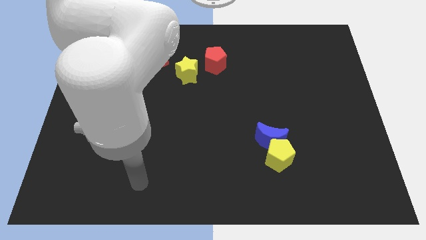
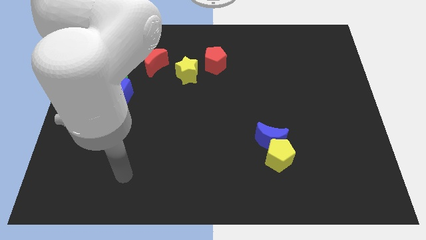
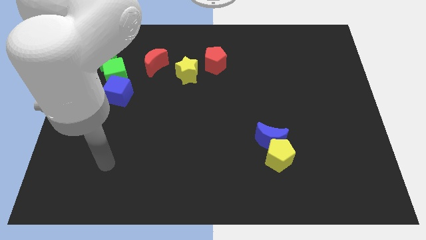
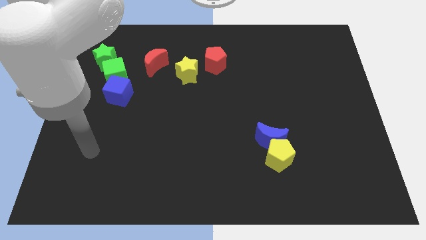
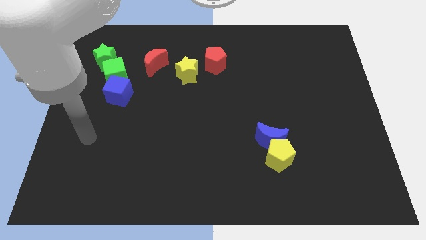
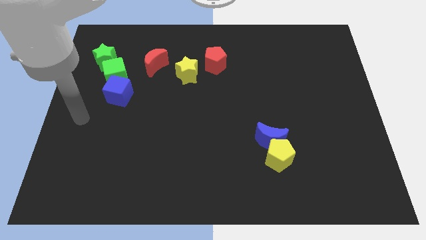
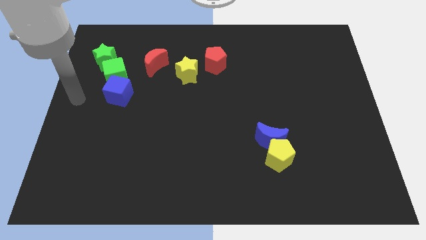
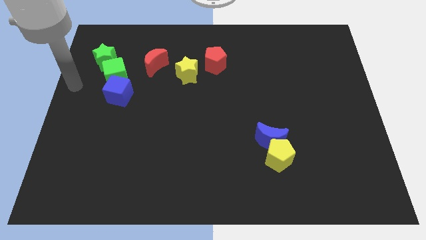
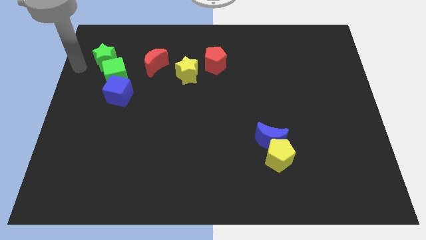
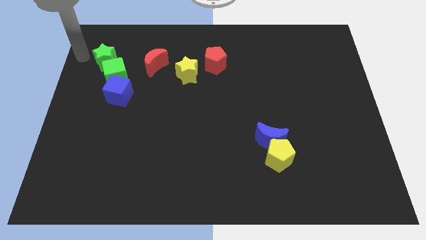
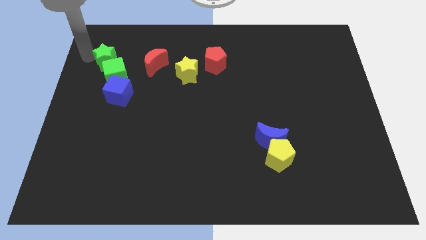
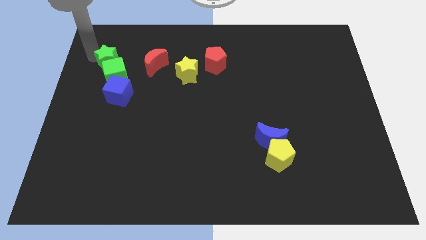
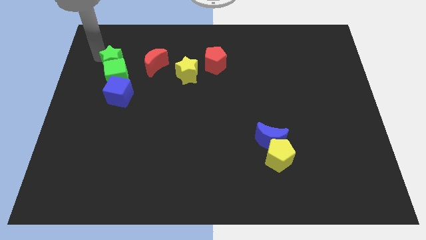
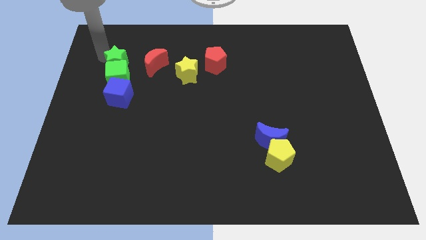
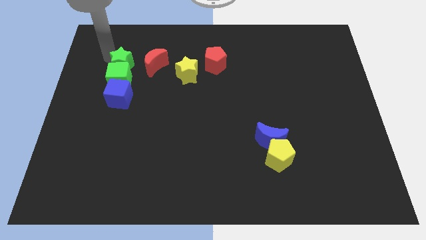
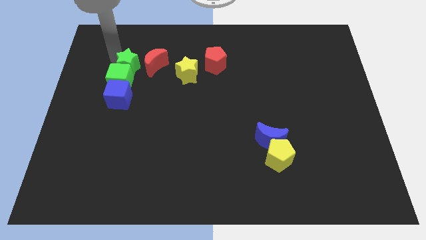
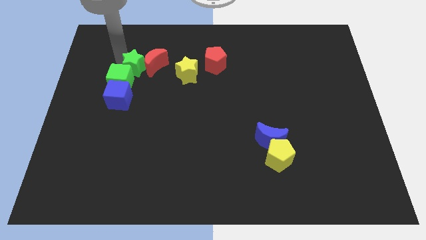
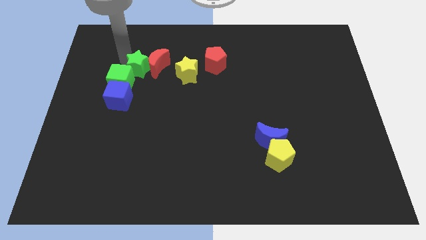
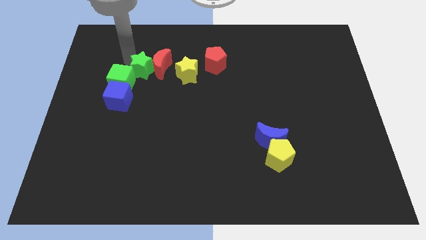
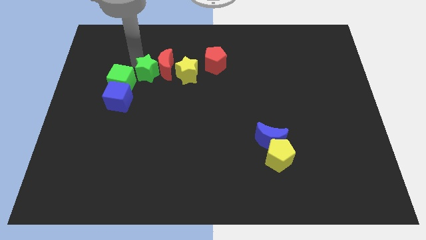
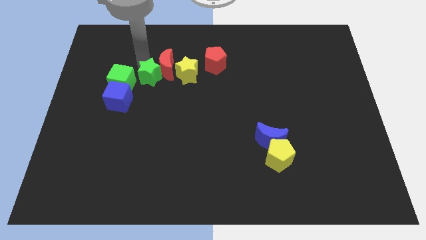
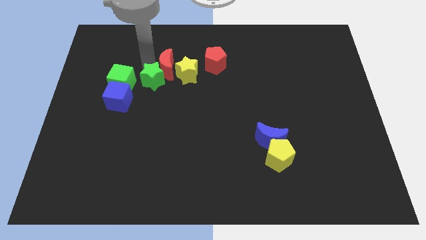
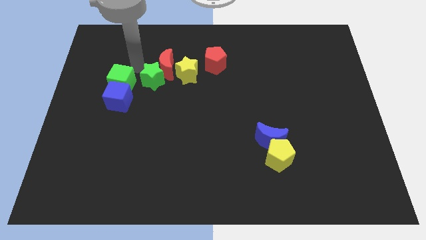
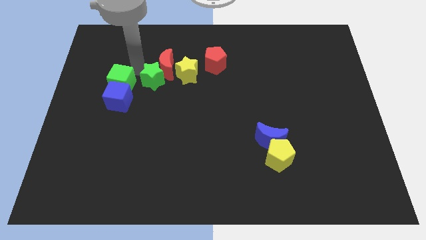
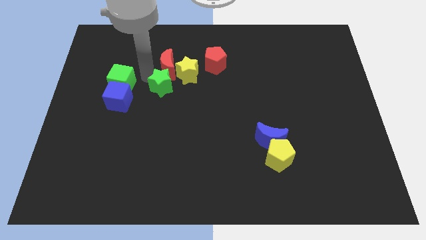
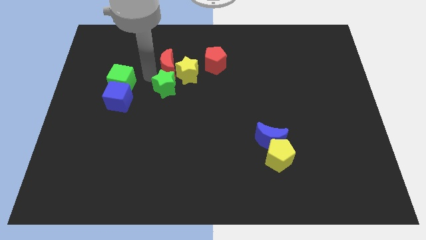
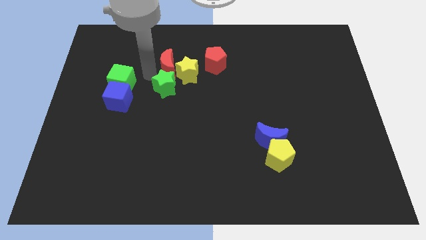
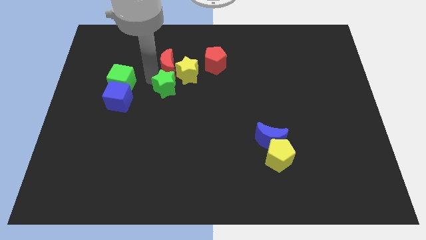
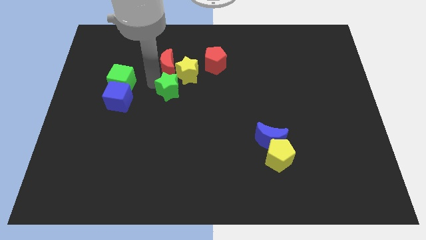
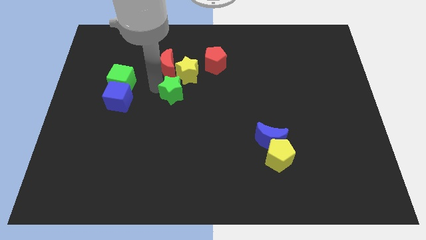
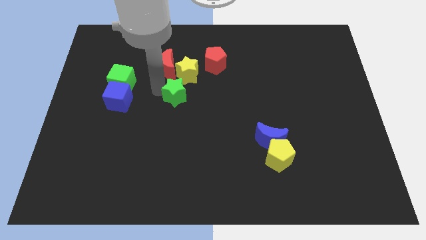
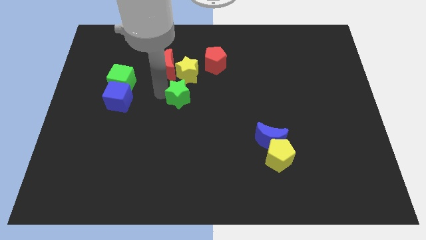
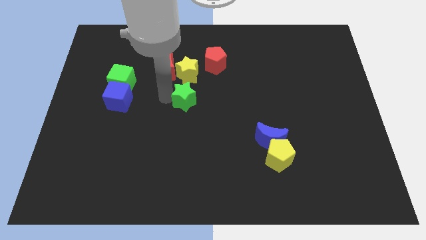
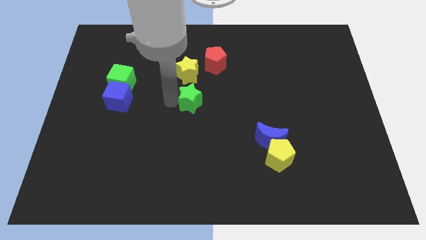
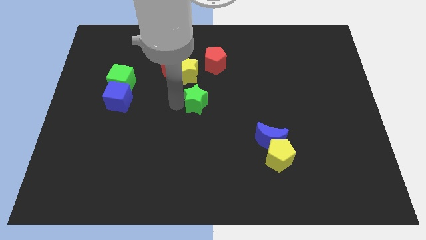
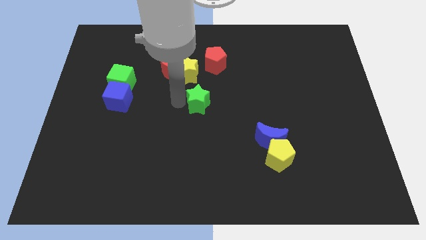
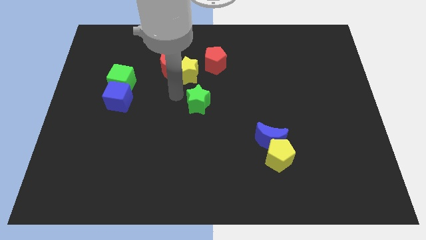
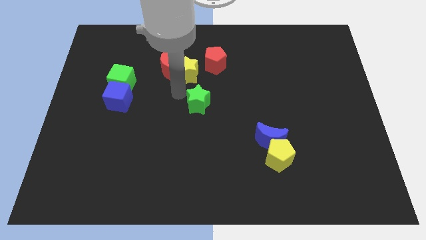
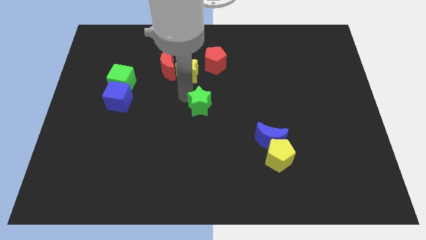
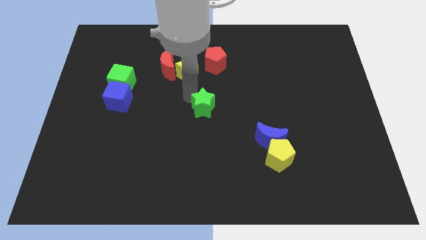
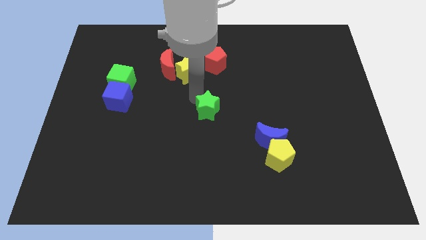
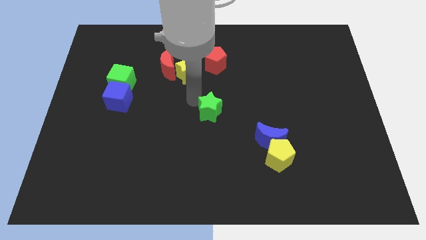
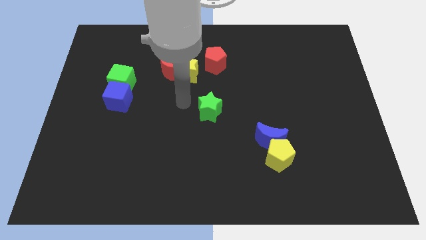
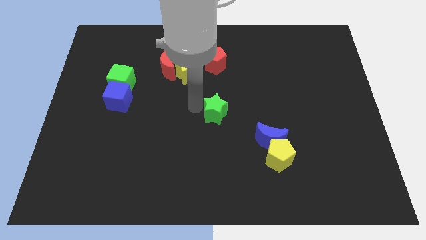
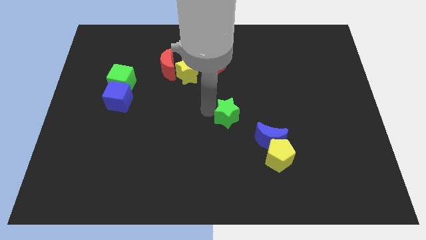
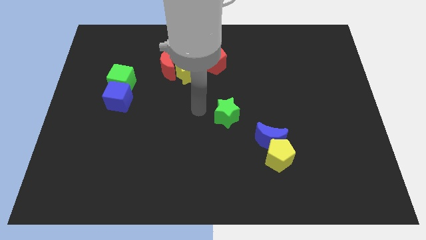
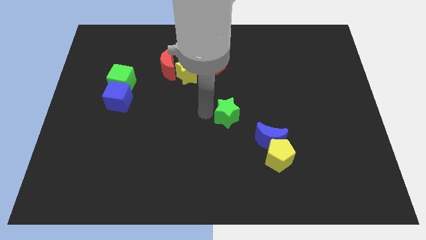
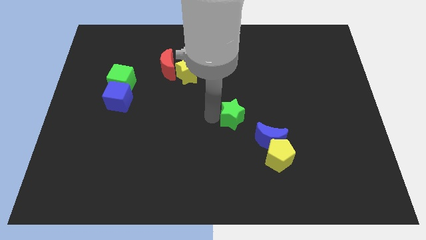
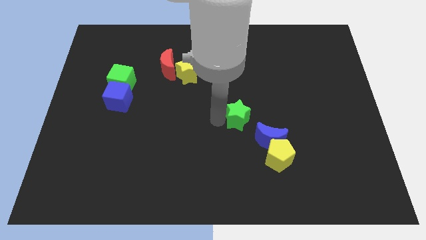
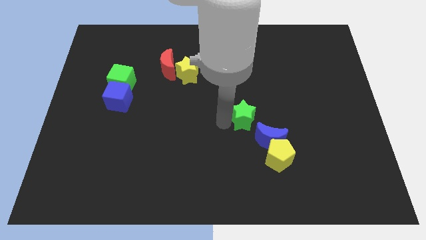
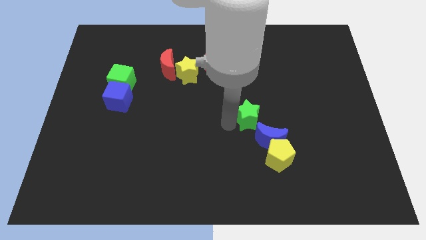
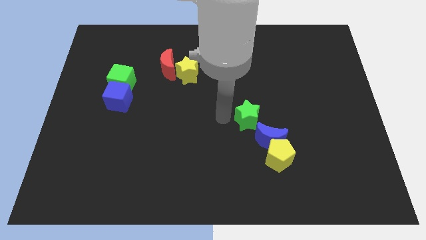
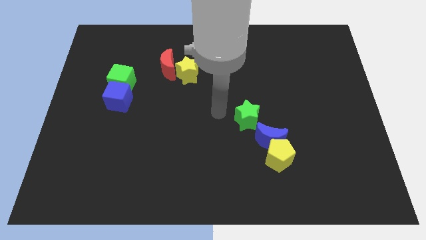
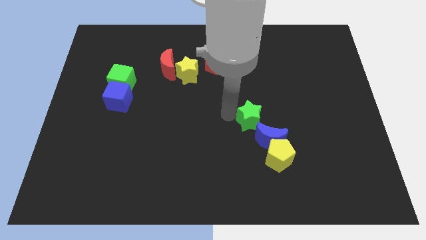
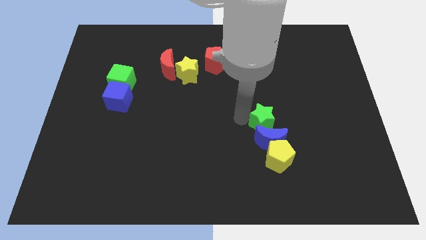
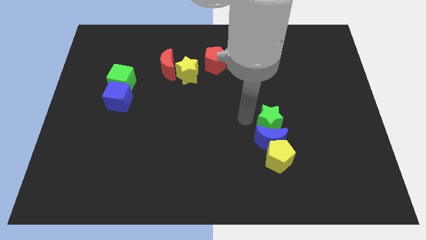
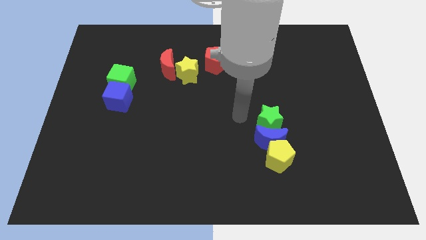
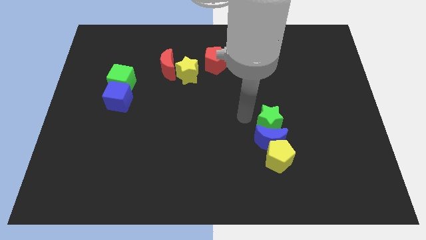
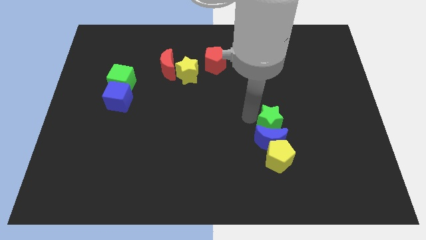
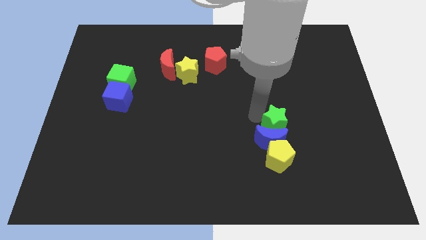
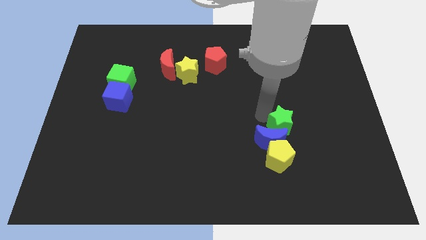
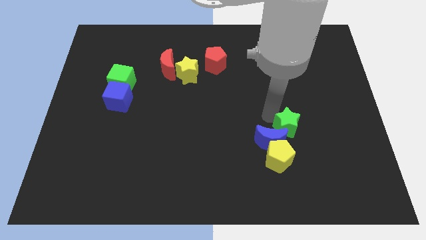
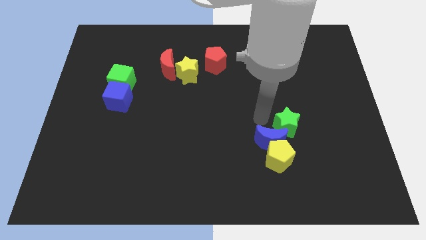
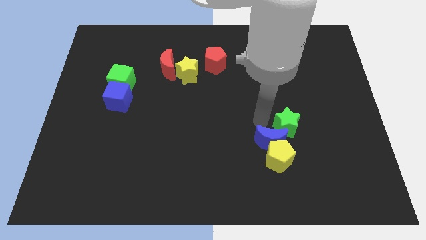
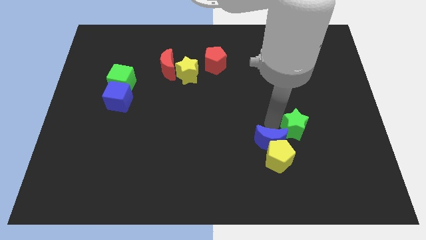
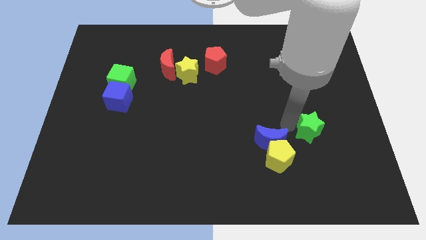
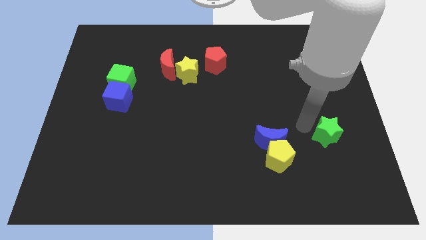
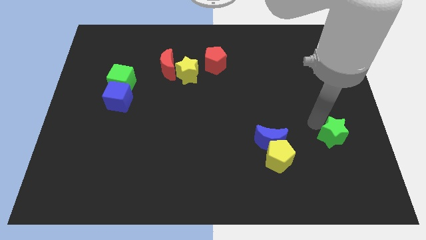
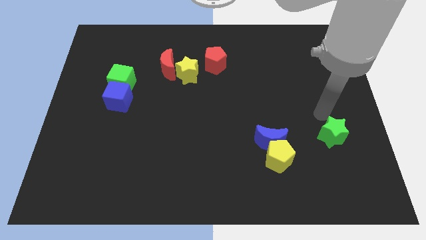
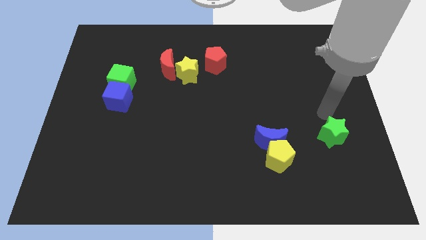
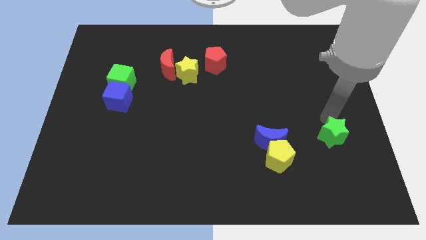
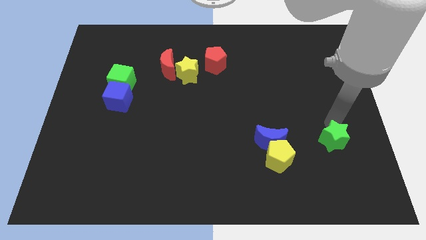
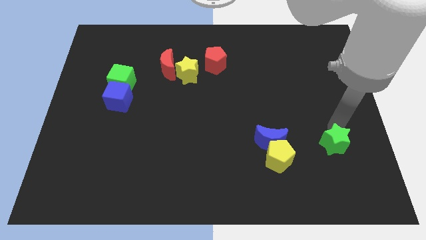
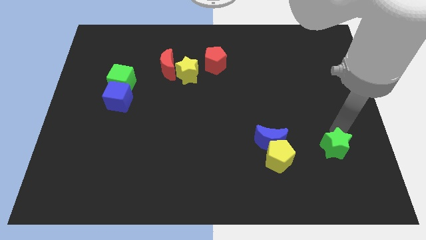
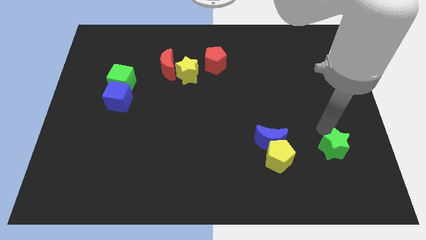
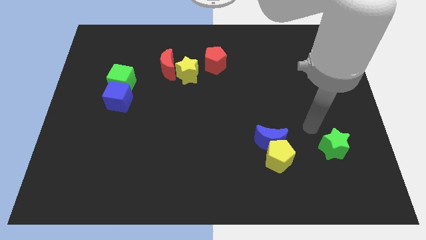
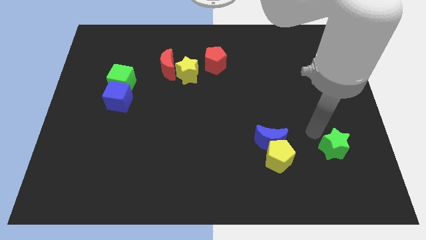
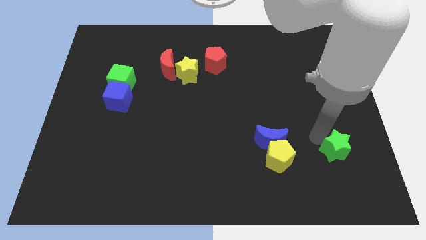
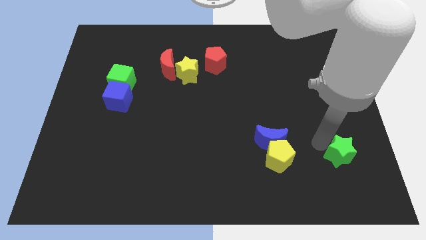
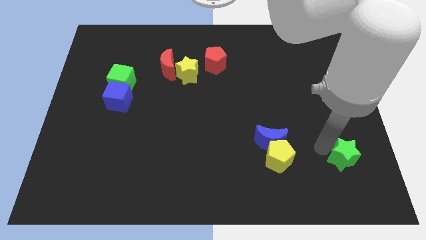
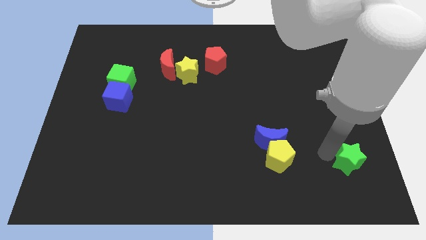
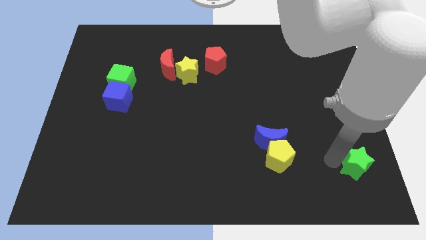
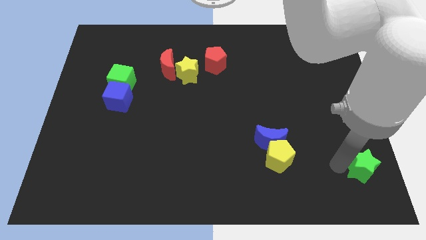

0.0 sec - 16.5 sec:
slide the green star to the bottom right of the board
